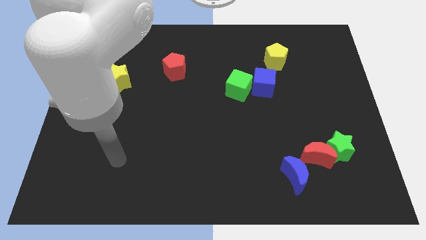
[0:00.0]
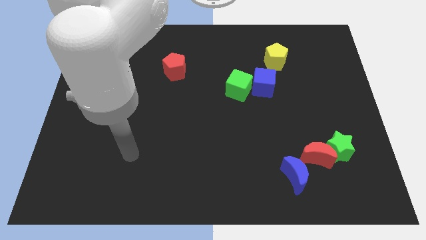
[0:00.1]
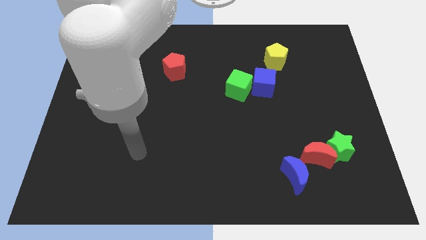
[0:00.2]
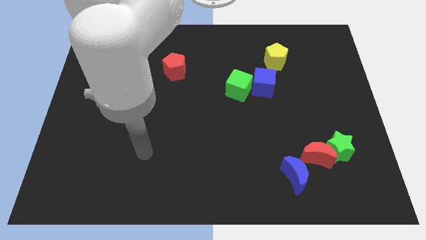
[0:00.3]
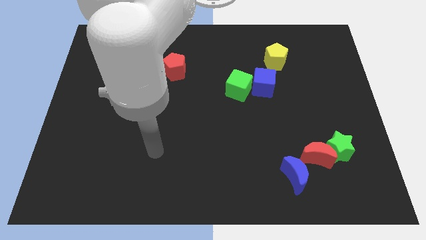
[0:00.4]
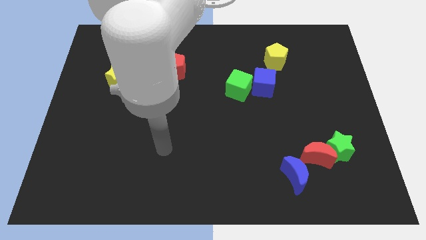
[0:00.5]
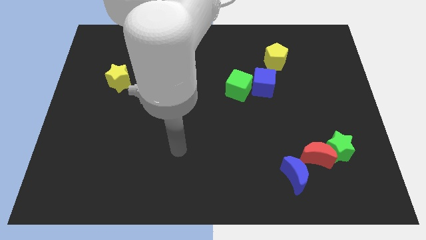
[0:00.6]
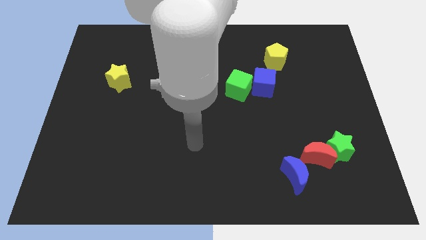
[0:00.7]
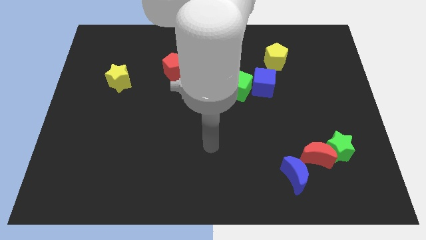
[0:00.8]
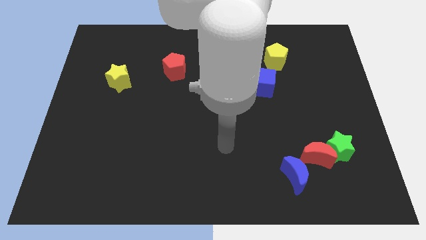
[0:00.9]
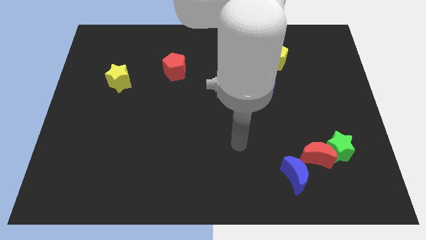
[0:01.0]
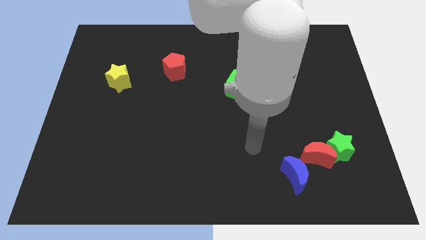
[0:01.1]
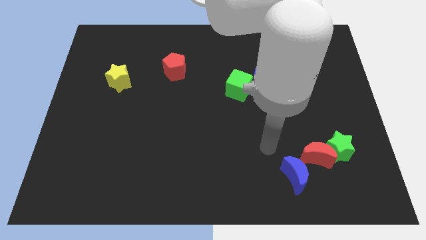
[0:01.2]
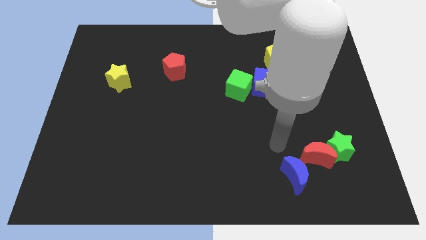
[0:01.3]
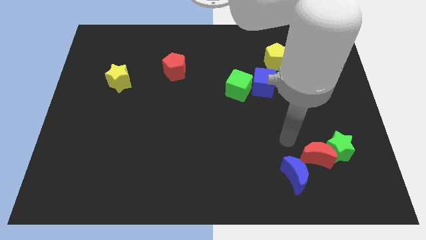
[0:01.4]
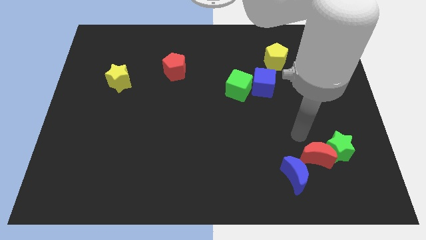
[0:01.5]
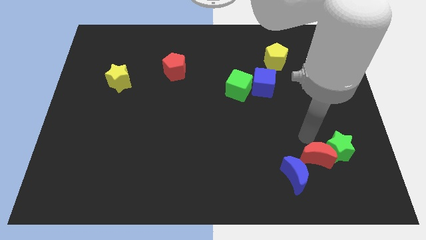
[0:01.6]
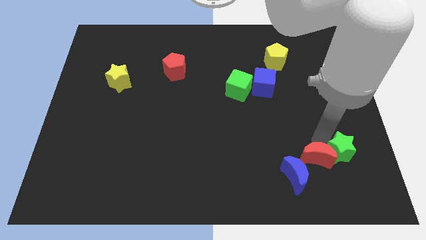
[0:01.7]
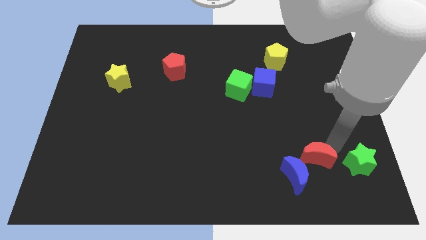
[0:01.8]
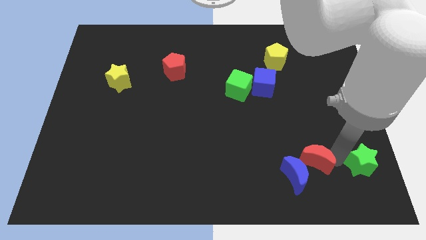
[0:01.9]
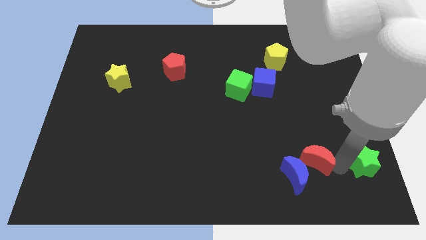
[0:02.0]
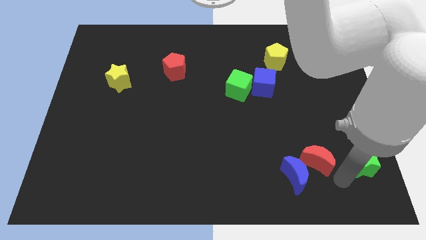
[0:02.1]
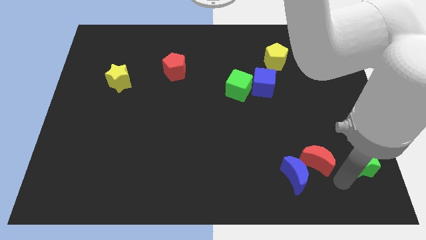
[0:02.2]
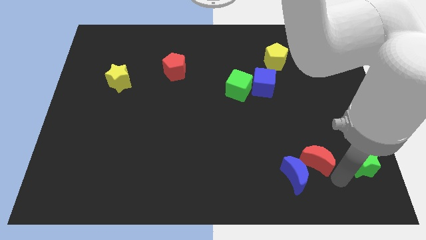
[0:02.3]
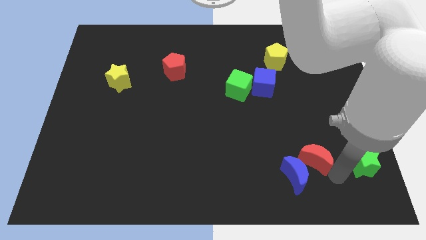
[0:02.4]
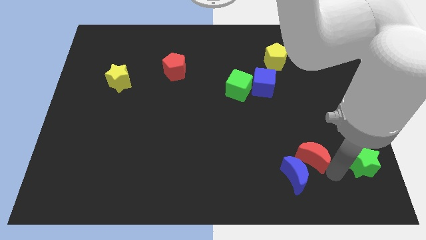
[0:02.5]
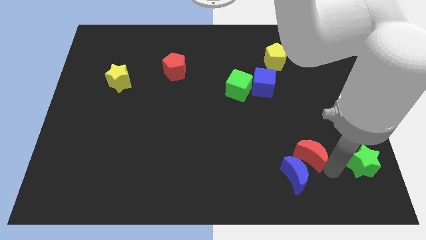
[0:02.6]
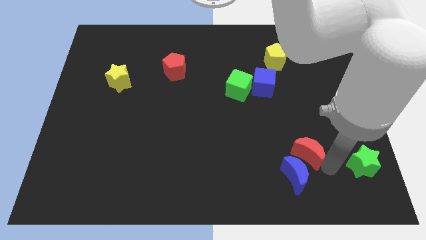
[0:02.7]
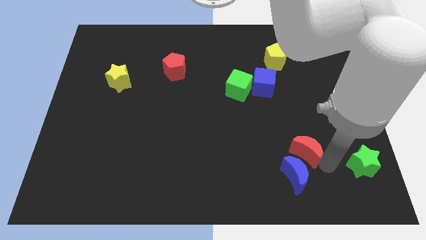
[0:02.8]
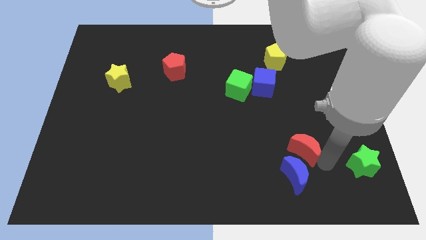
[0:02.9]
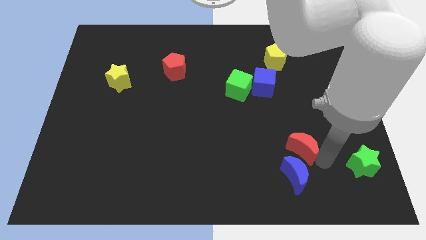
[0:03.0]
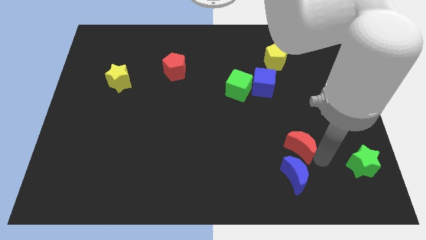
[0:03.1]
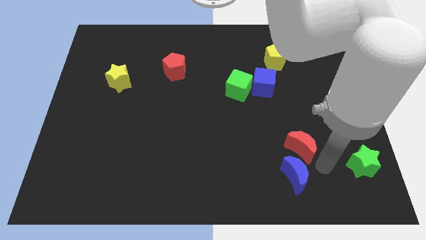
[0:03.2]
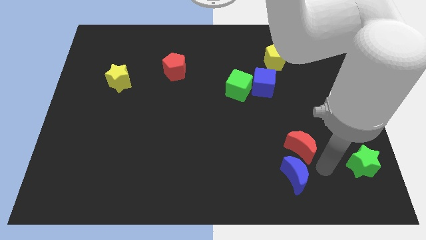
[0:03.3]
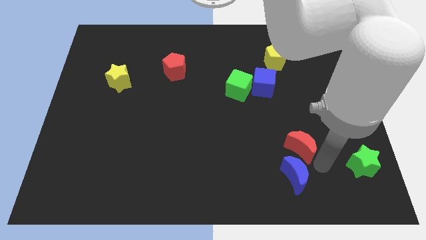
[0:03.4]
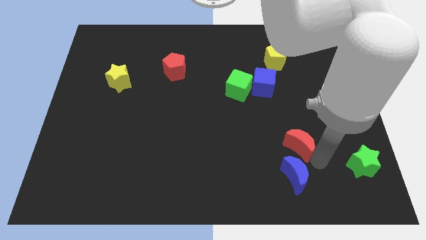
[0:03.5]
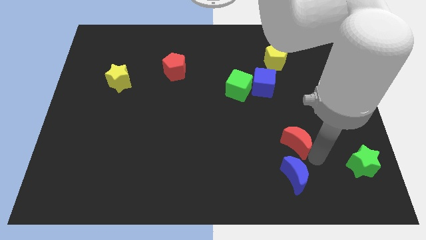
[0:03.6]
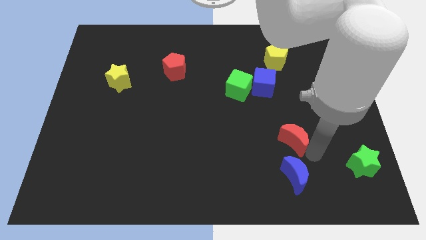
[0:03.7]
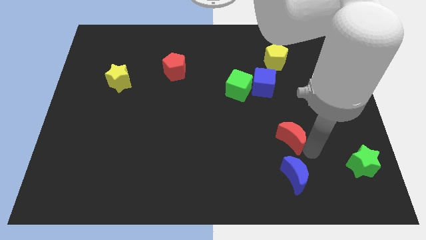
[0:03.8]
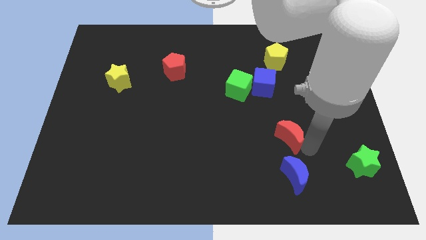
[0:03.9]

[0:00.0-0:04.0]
move the red moon a little bit upwards and left diagonally

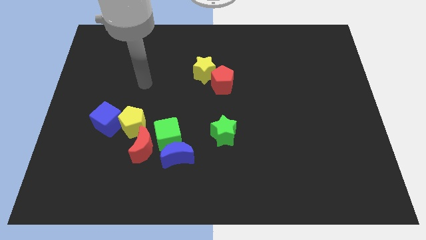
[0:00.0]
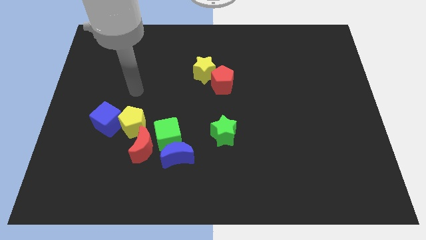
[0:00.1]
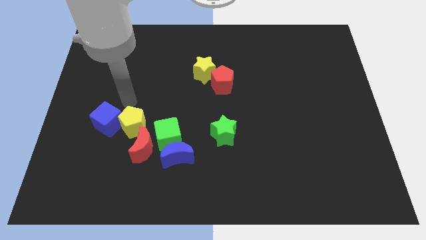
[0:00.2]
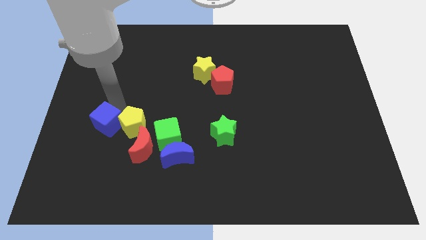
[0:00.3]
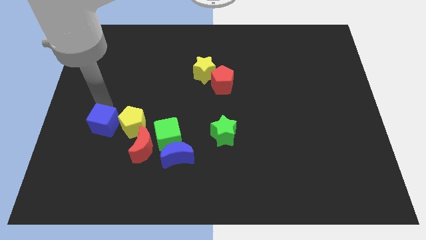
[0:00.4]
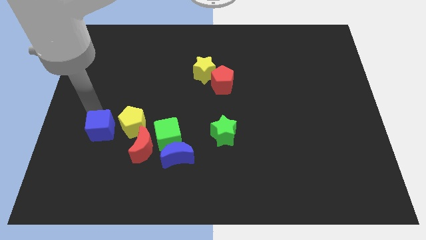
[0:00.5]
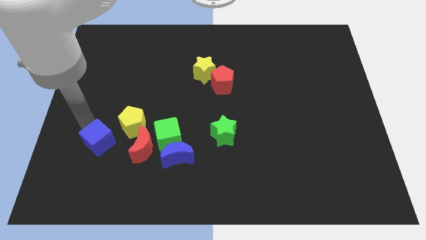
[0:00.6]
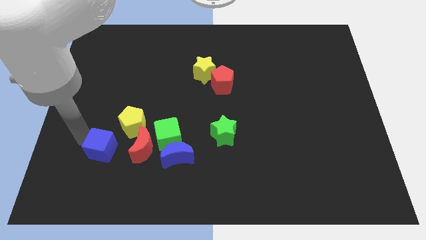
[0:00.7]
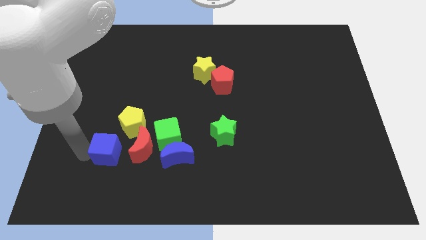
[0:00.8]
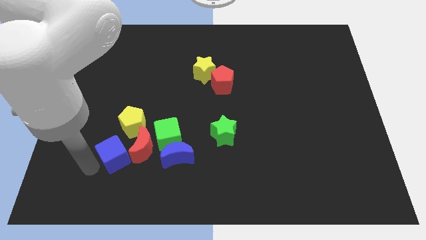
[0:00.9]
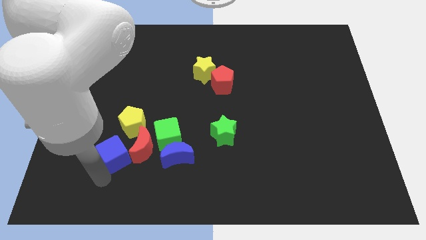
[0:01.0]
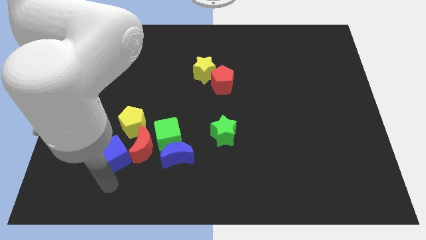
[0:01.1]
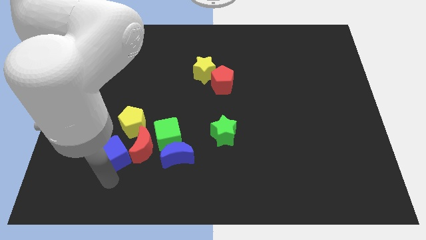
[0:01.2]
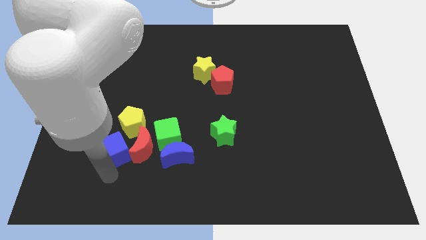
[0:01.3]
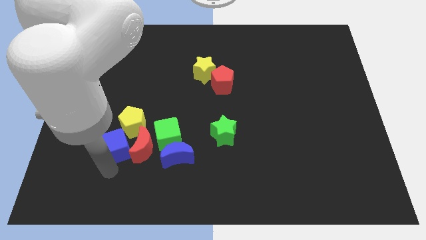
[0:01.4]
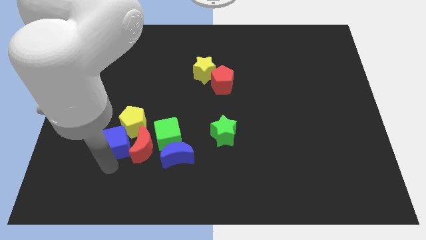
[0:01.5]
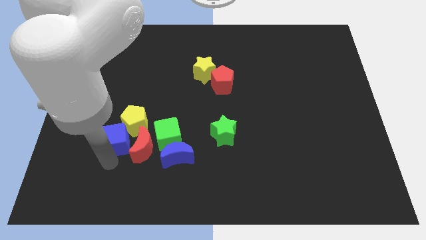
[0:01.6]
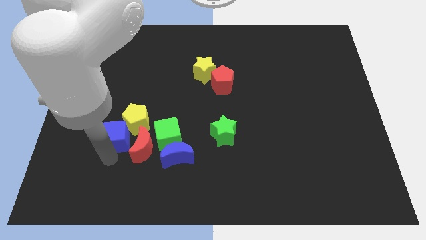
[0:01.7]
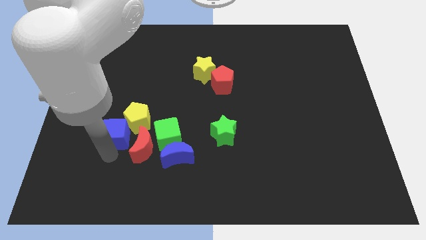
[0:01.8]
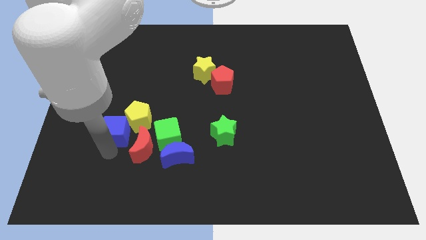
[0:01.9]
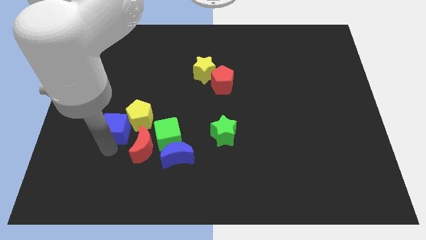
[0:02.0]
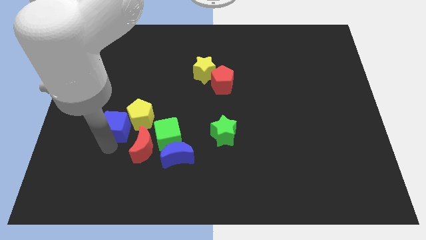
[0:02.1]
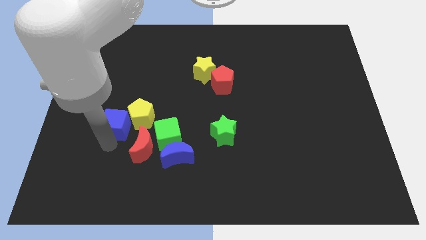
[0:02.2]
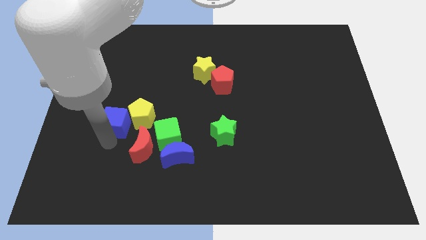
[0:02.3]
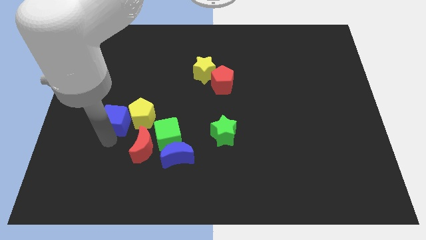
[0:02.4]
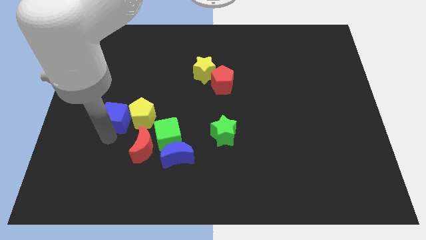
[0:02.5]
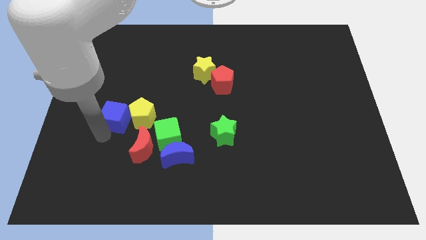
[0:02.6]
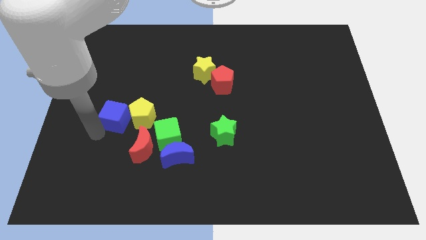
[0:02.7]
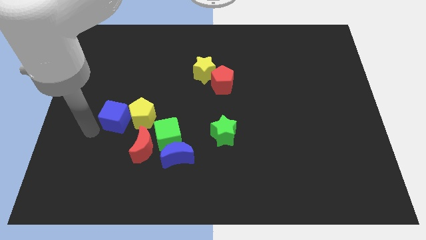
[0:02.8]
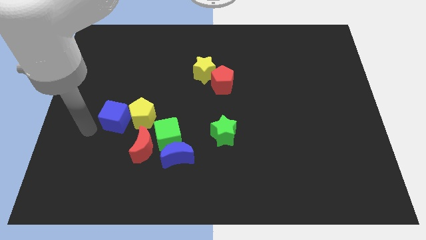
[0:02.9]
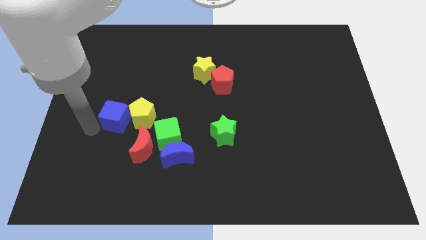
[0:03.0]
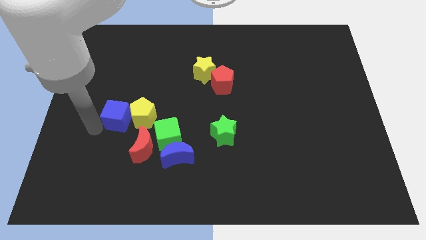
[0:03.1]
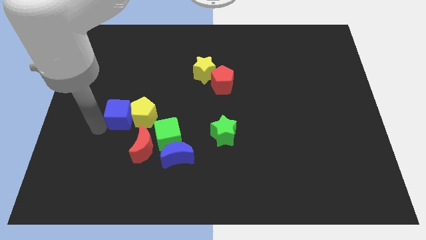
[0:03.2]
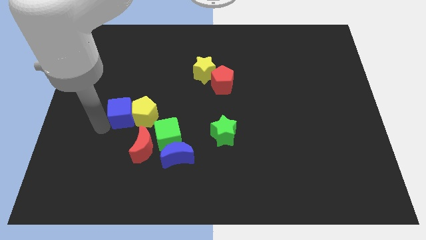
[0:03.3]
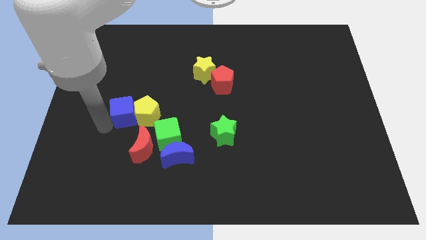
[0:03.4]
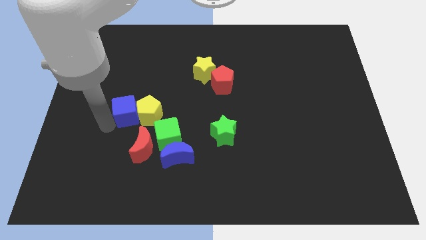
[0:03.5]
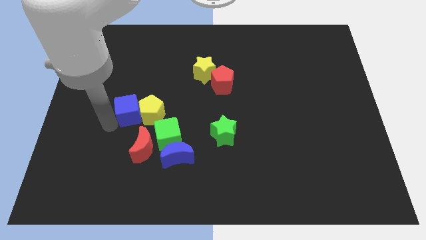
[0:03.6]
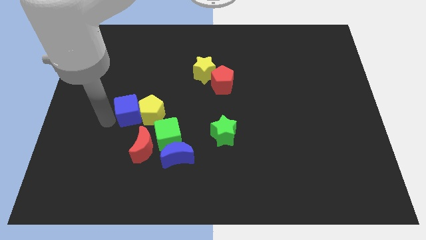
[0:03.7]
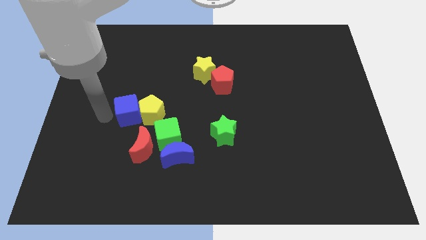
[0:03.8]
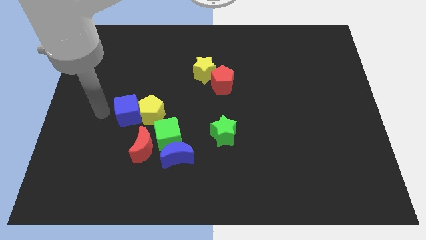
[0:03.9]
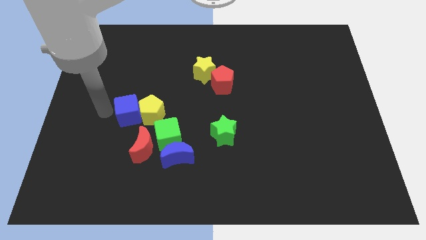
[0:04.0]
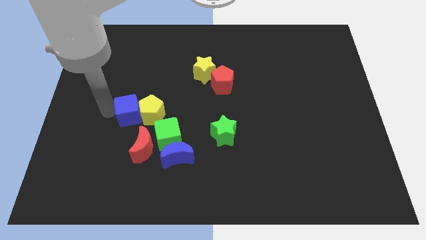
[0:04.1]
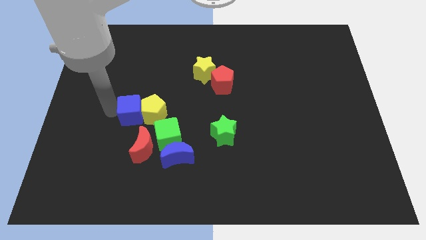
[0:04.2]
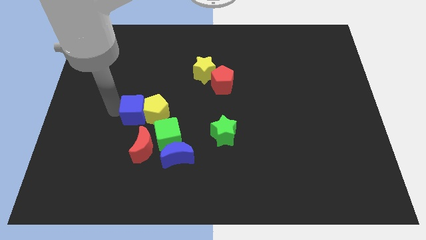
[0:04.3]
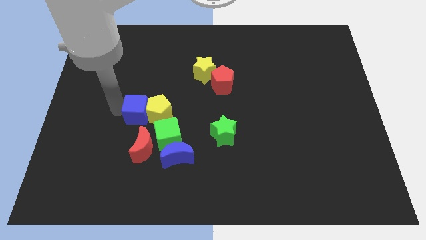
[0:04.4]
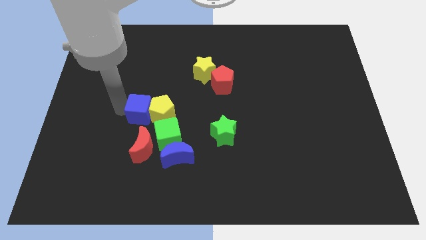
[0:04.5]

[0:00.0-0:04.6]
slightly move the blue cube right
